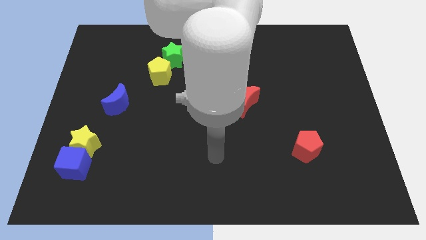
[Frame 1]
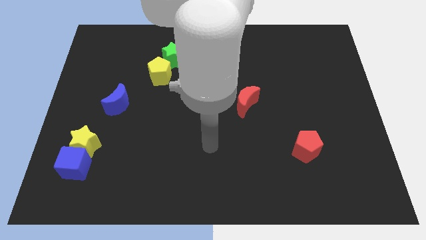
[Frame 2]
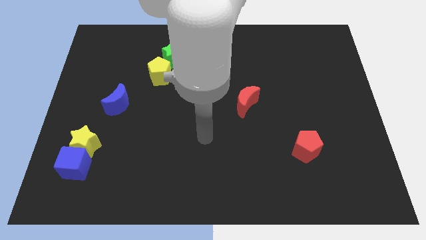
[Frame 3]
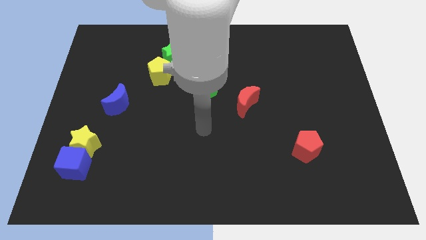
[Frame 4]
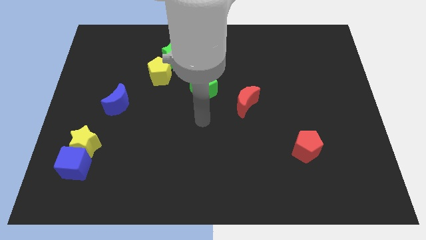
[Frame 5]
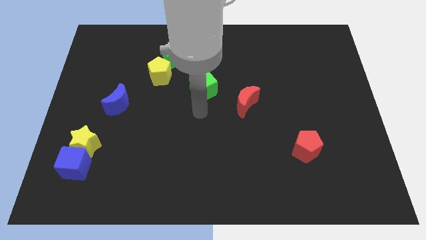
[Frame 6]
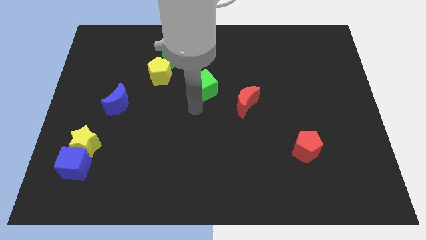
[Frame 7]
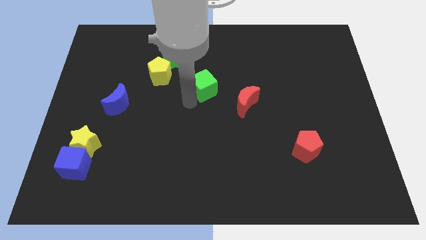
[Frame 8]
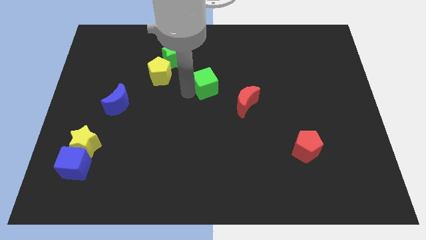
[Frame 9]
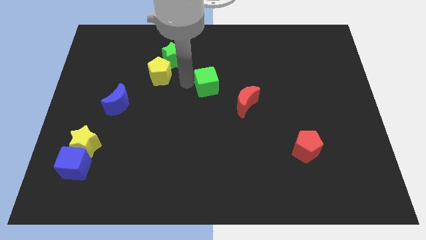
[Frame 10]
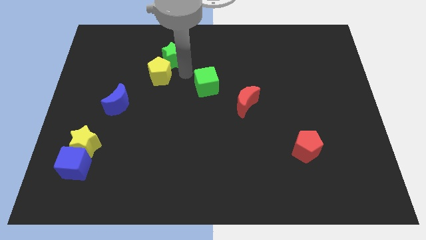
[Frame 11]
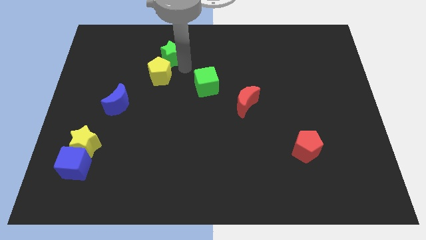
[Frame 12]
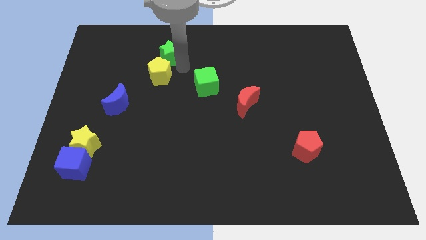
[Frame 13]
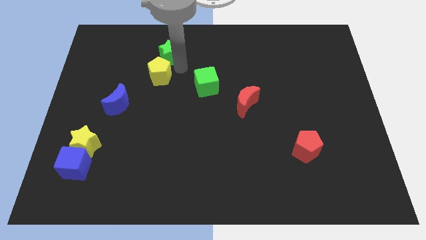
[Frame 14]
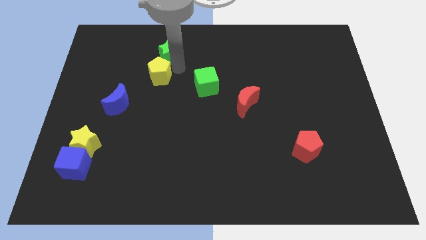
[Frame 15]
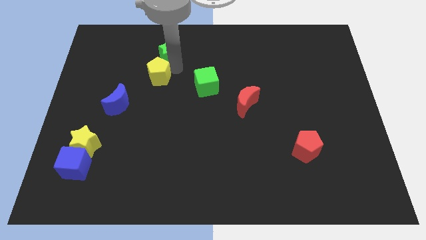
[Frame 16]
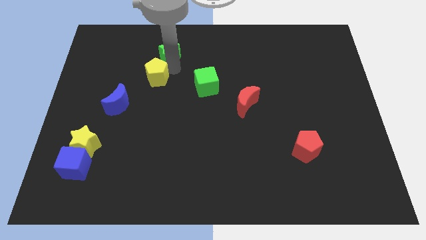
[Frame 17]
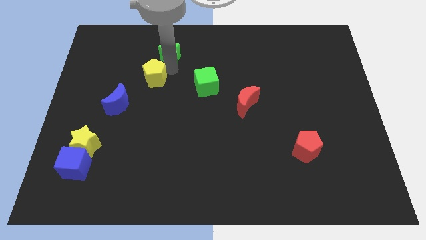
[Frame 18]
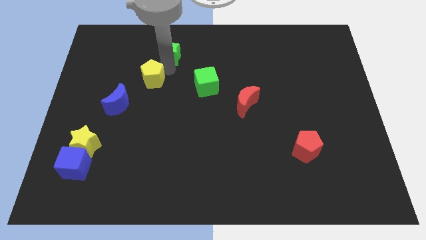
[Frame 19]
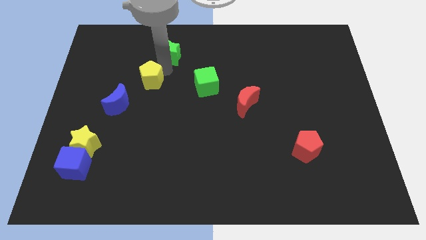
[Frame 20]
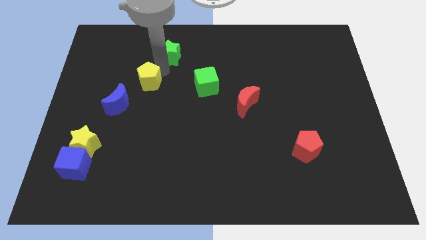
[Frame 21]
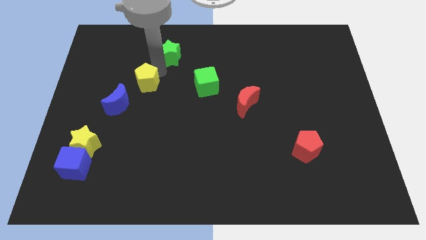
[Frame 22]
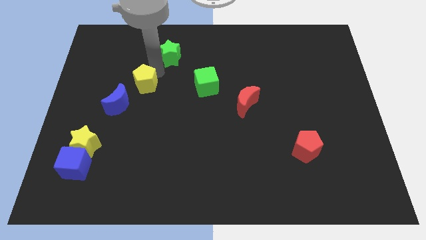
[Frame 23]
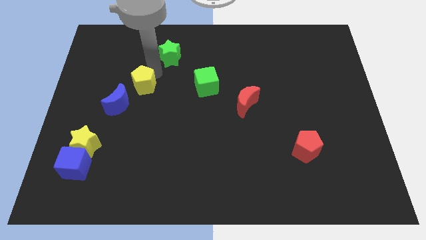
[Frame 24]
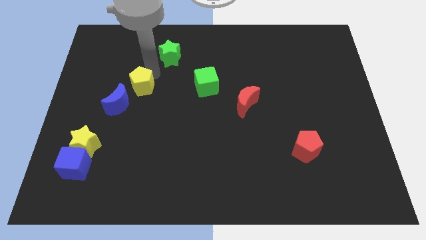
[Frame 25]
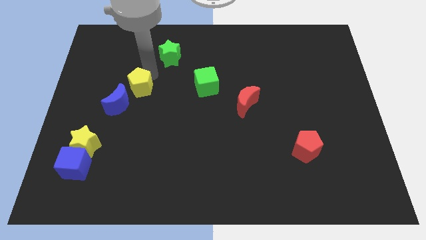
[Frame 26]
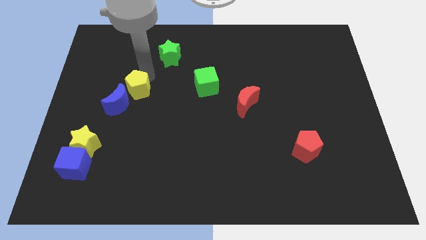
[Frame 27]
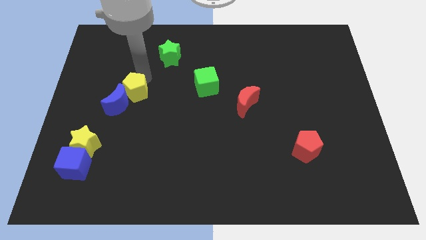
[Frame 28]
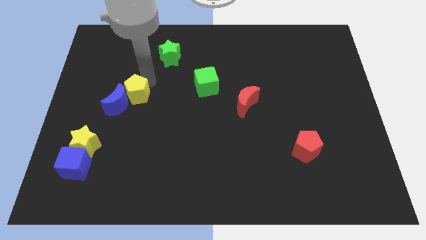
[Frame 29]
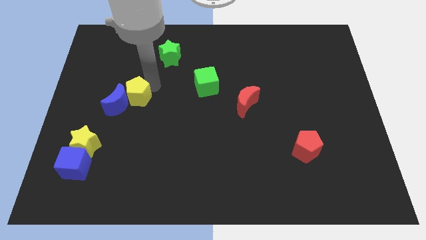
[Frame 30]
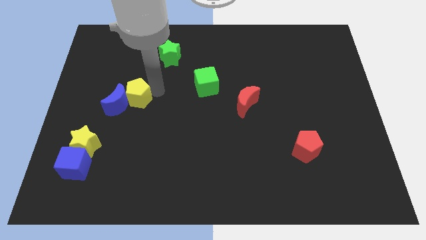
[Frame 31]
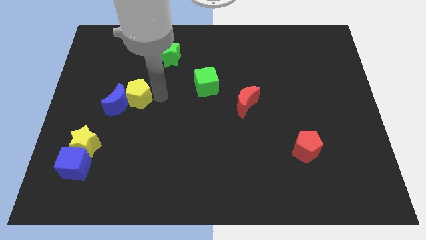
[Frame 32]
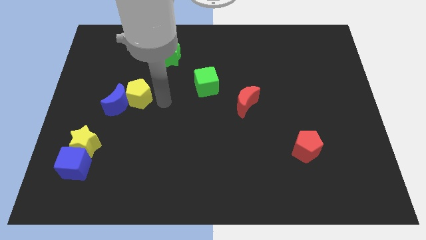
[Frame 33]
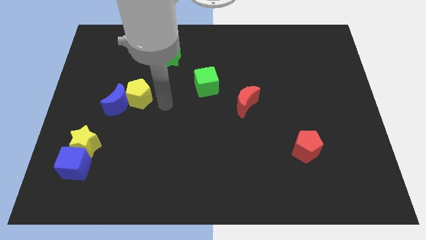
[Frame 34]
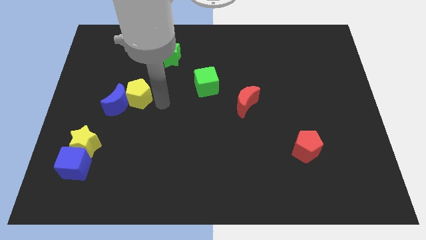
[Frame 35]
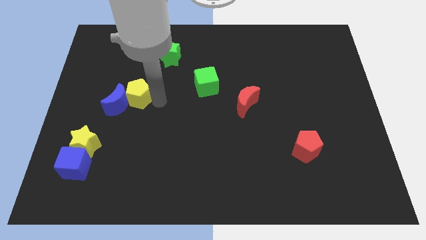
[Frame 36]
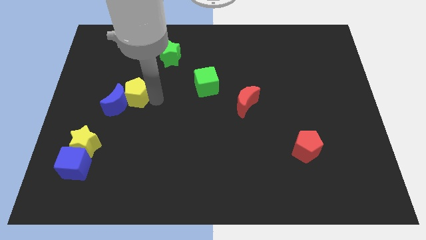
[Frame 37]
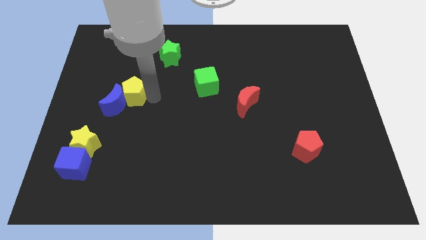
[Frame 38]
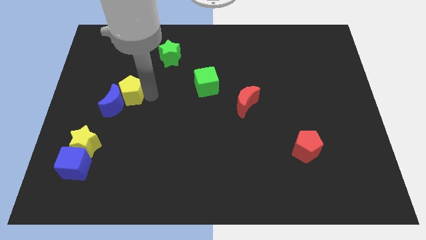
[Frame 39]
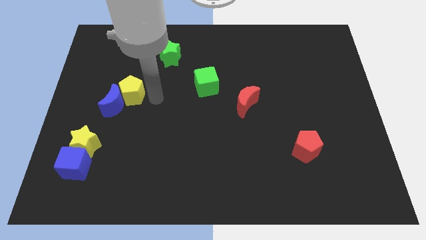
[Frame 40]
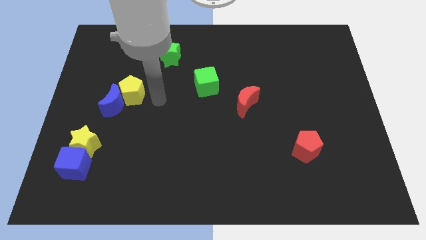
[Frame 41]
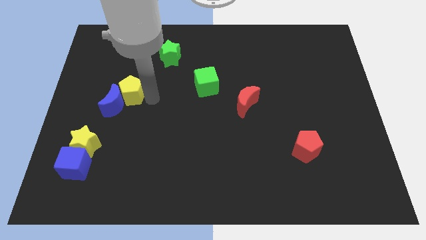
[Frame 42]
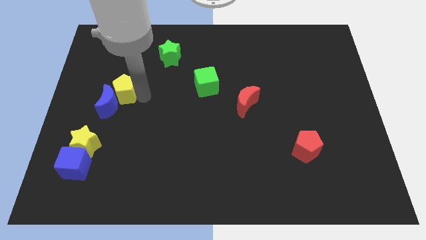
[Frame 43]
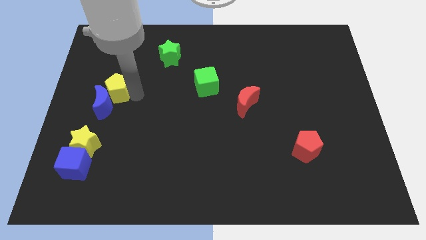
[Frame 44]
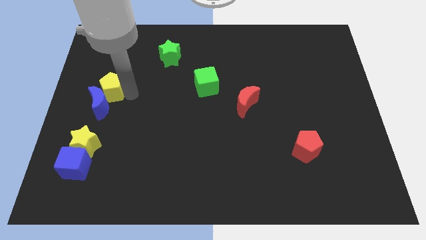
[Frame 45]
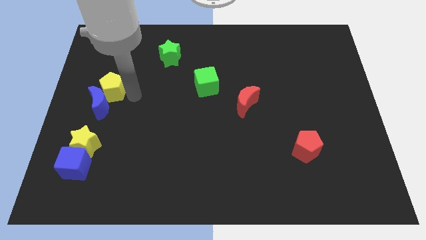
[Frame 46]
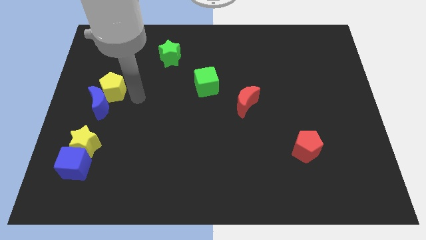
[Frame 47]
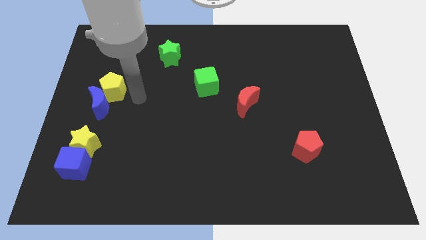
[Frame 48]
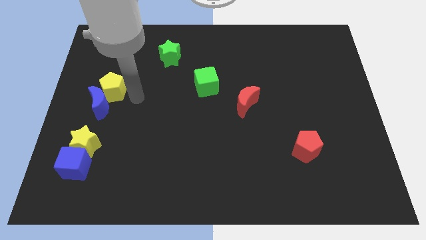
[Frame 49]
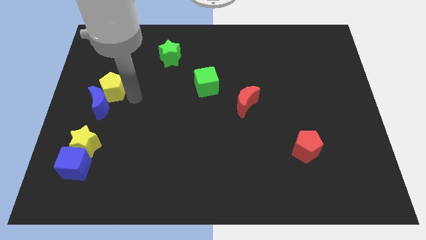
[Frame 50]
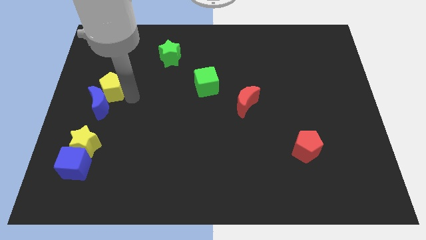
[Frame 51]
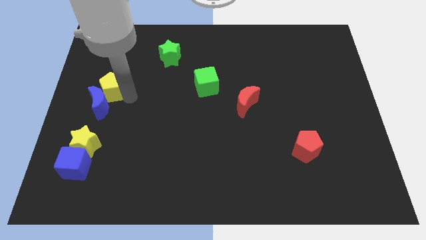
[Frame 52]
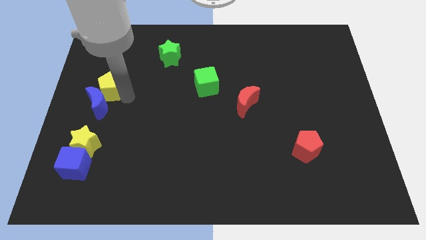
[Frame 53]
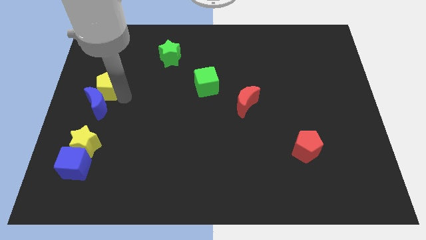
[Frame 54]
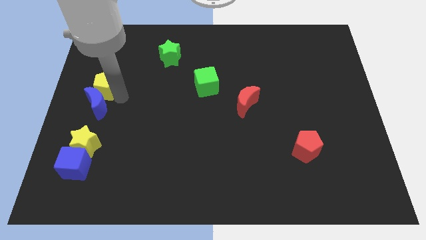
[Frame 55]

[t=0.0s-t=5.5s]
put the yellow pentagon to the top side of the yellow star

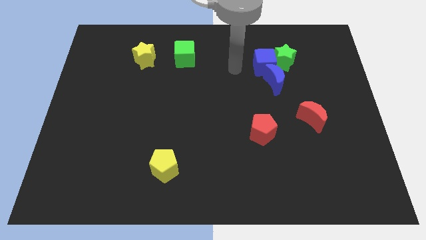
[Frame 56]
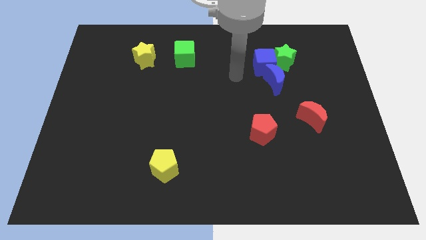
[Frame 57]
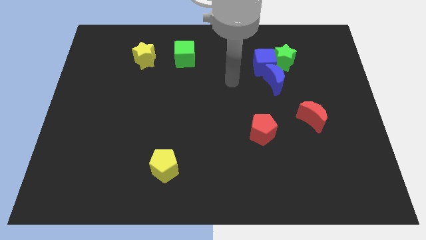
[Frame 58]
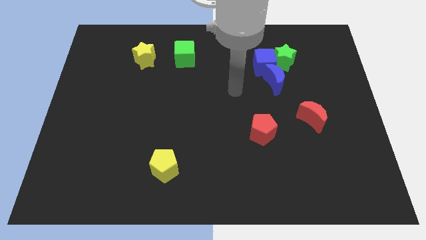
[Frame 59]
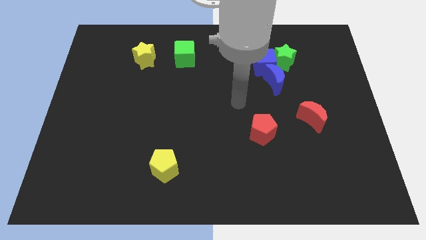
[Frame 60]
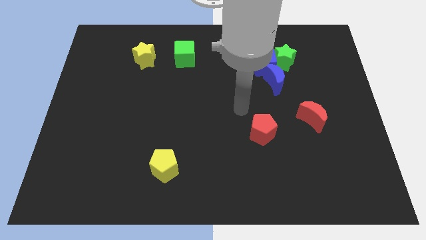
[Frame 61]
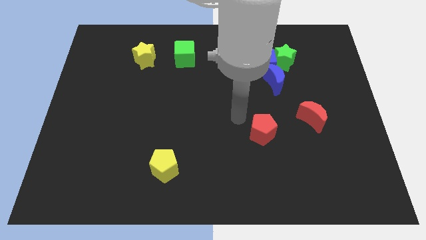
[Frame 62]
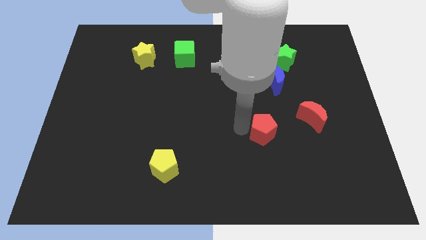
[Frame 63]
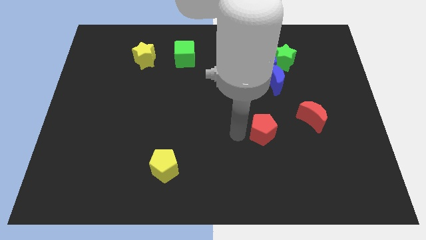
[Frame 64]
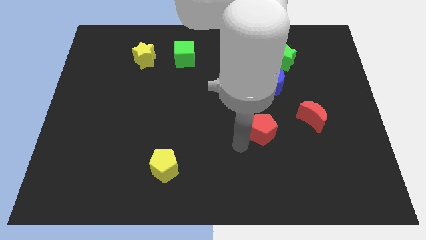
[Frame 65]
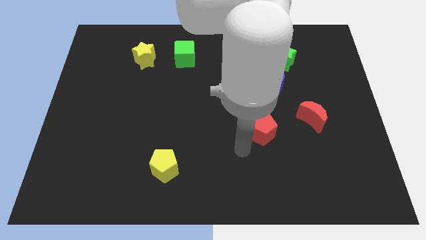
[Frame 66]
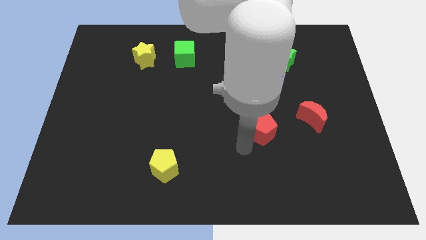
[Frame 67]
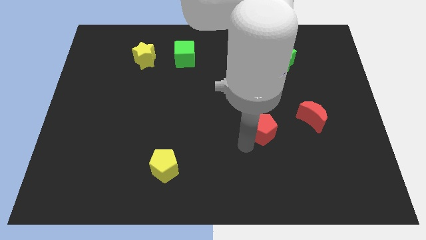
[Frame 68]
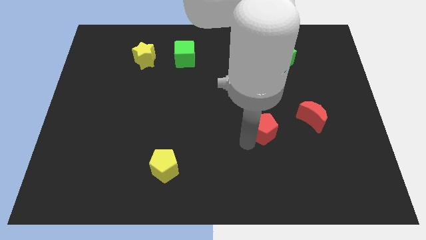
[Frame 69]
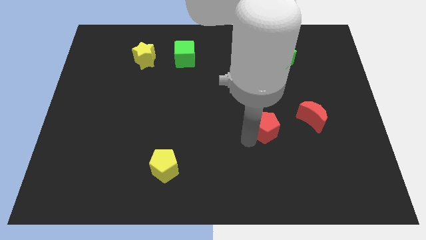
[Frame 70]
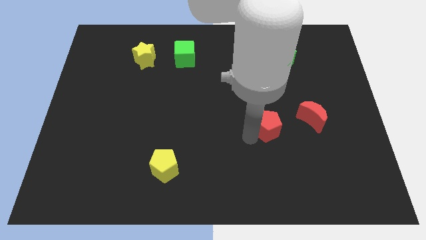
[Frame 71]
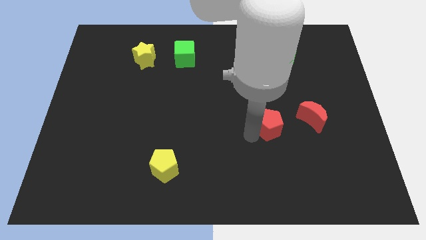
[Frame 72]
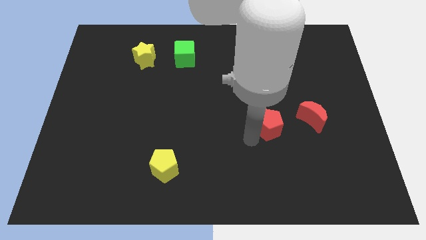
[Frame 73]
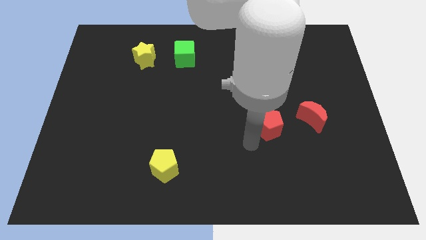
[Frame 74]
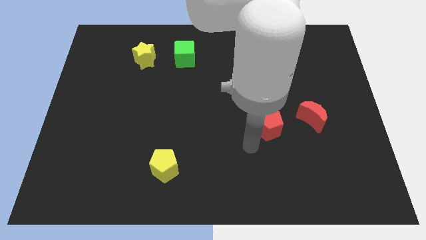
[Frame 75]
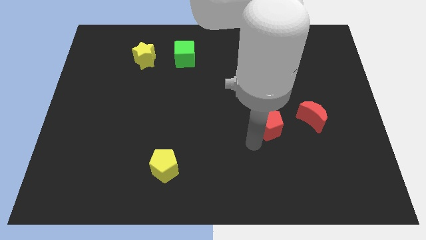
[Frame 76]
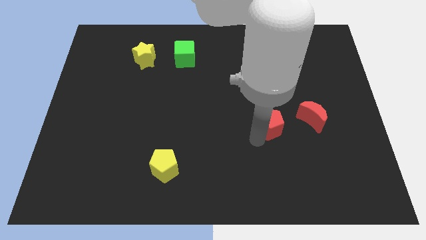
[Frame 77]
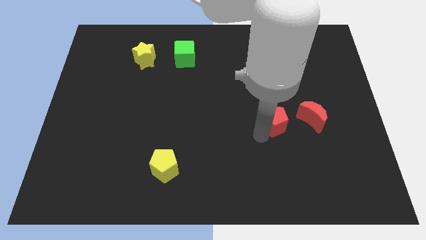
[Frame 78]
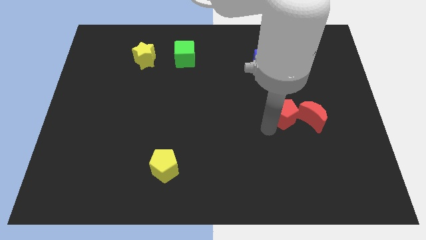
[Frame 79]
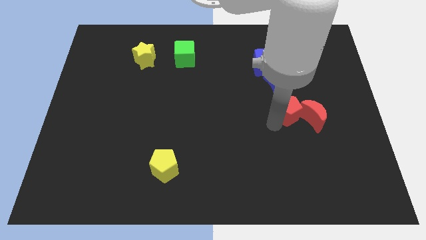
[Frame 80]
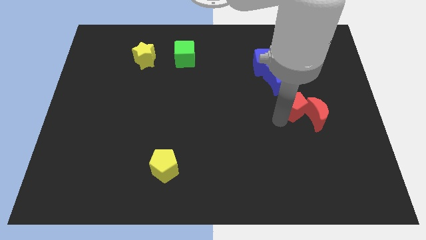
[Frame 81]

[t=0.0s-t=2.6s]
put the red pentagon to the bottom right of the blue moon
